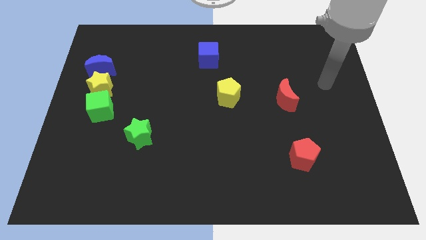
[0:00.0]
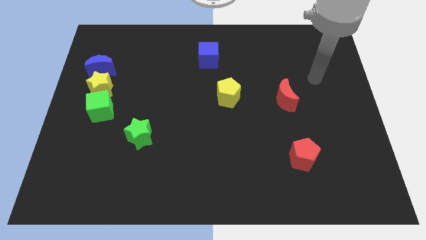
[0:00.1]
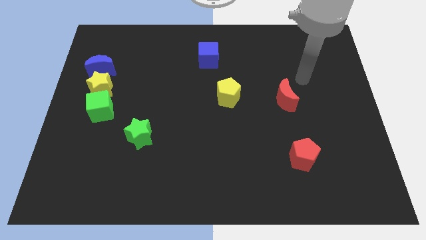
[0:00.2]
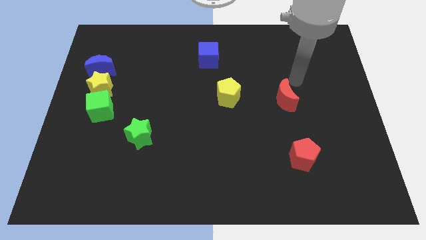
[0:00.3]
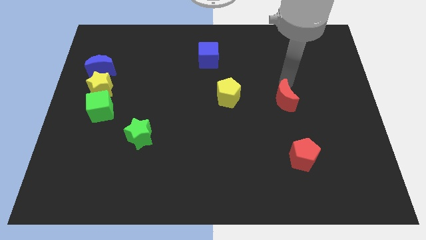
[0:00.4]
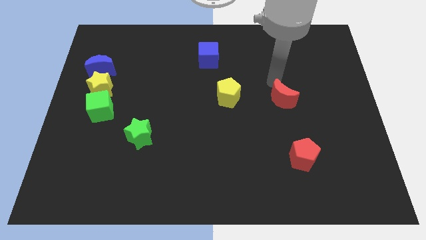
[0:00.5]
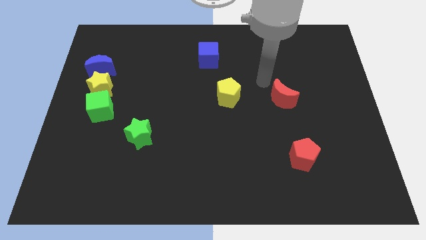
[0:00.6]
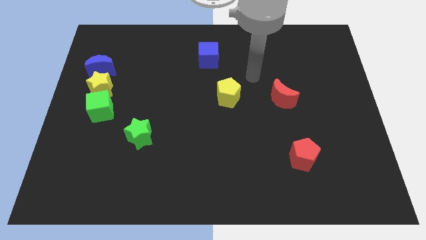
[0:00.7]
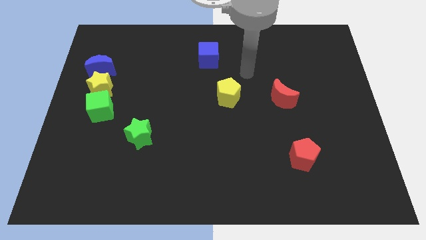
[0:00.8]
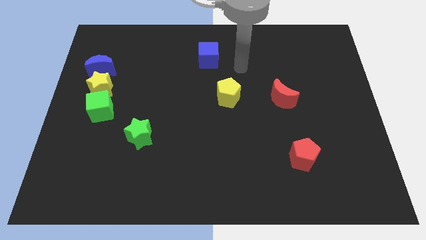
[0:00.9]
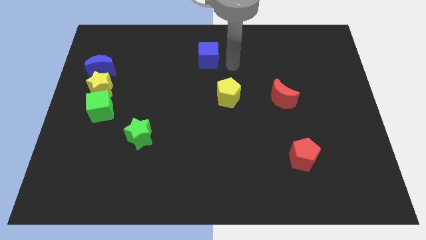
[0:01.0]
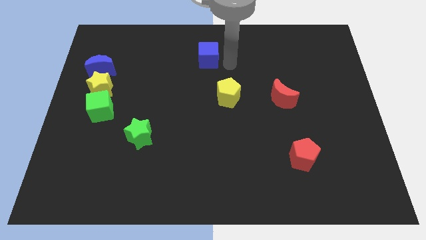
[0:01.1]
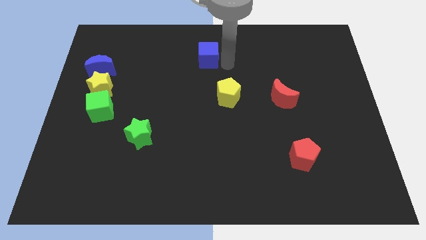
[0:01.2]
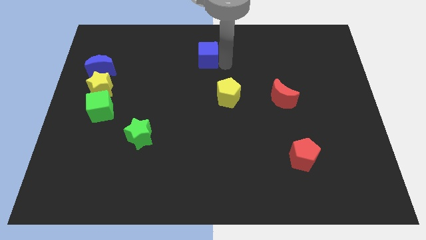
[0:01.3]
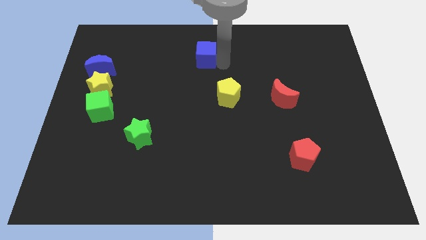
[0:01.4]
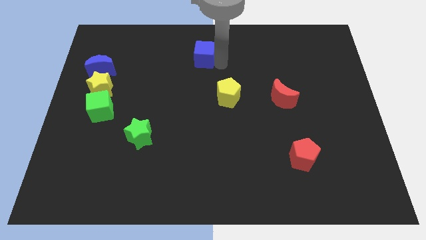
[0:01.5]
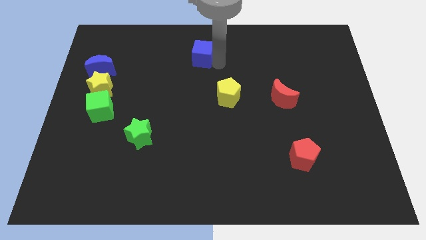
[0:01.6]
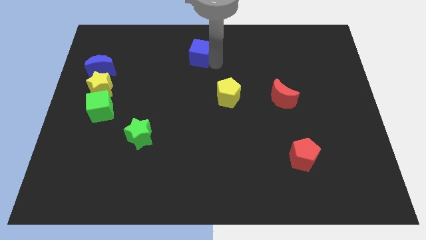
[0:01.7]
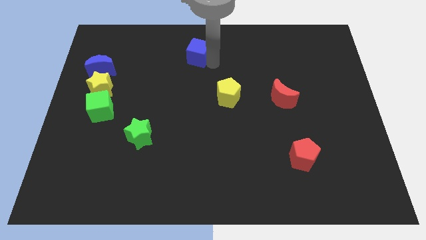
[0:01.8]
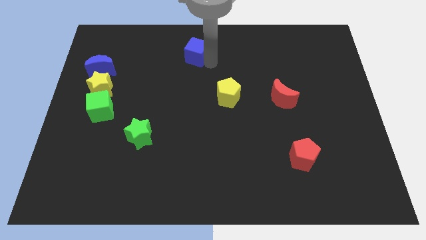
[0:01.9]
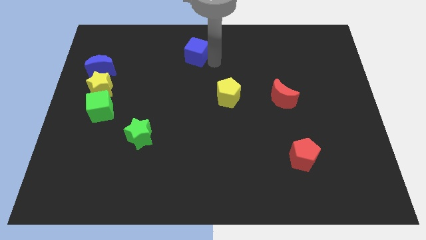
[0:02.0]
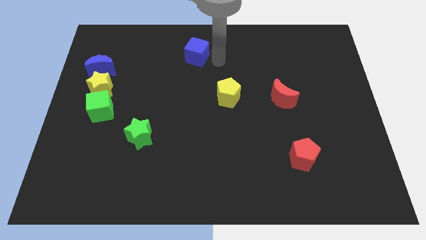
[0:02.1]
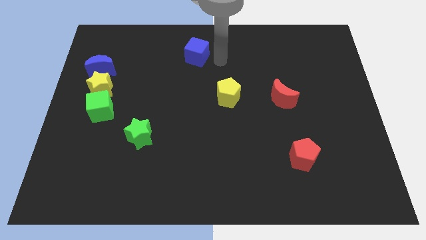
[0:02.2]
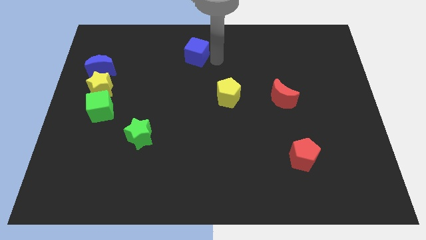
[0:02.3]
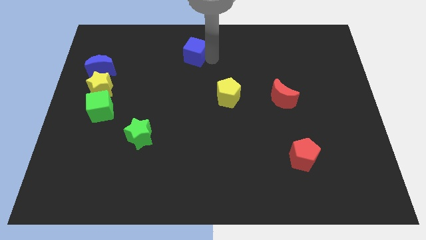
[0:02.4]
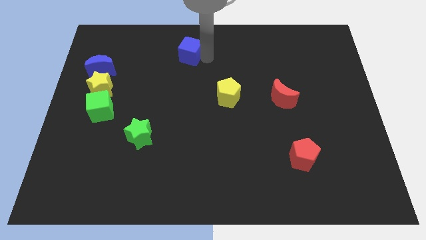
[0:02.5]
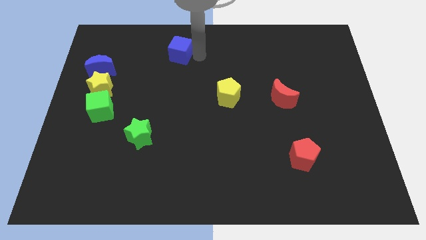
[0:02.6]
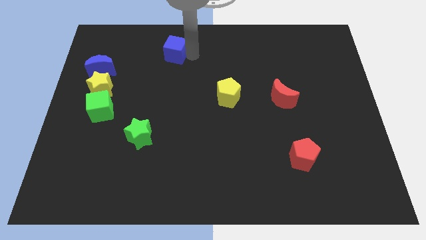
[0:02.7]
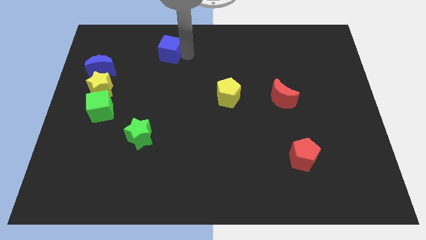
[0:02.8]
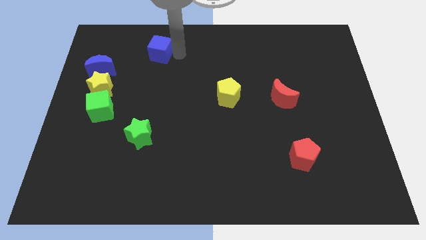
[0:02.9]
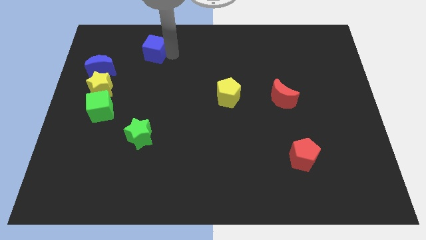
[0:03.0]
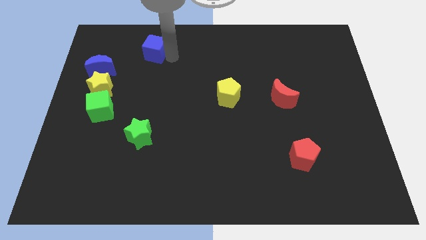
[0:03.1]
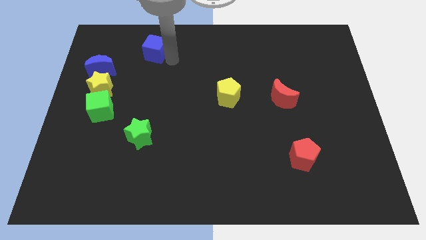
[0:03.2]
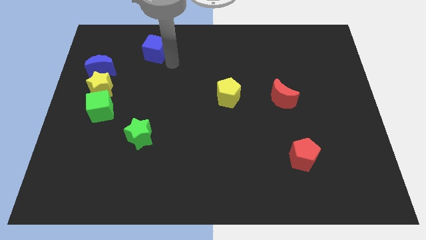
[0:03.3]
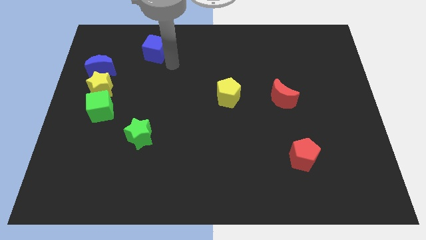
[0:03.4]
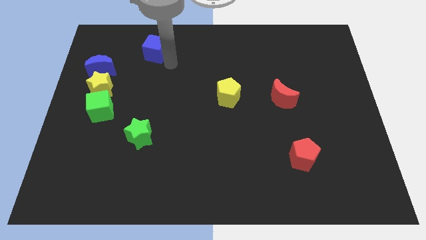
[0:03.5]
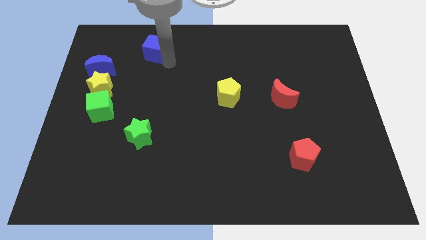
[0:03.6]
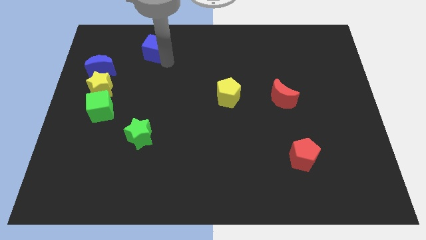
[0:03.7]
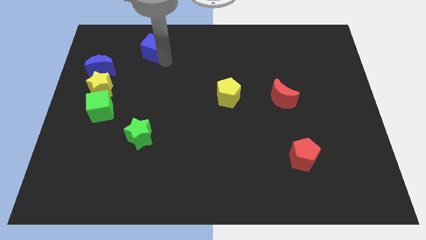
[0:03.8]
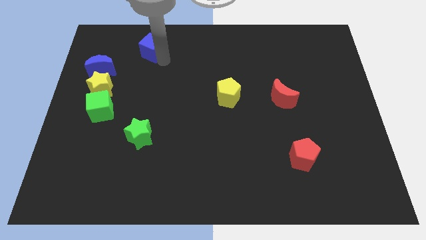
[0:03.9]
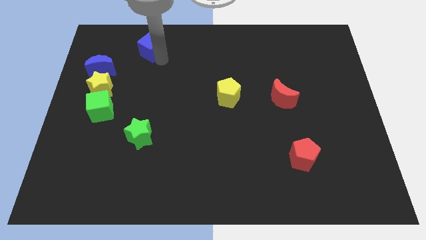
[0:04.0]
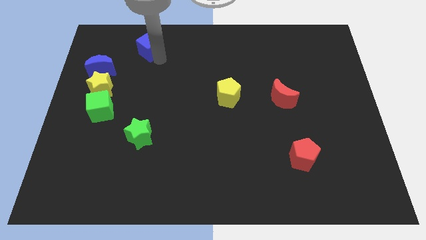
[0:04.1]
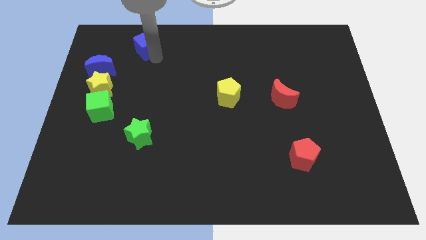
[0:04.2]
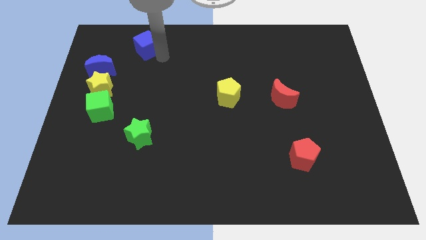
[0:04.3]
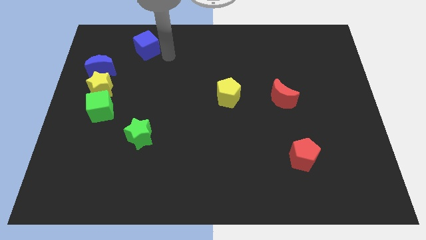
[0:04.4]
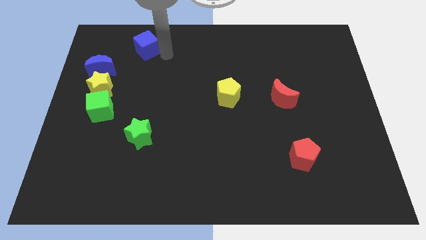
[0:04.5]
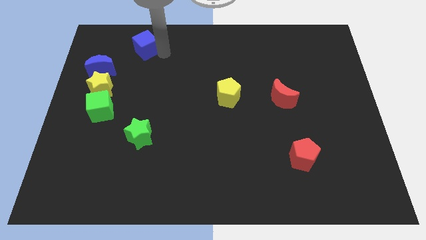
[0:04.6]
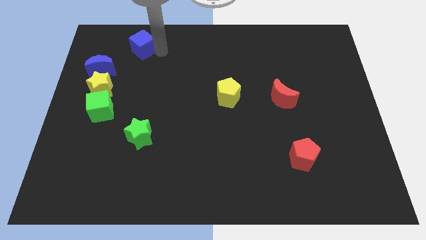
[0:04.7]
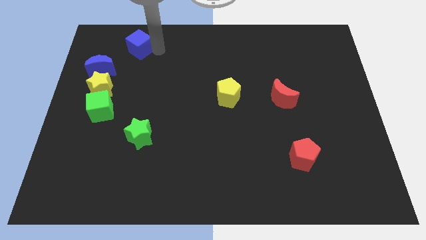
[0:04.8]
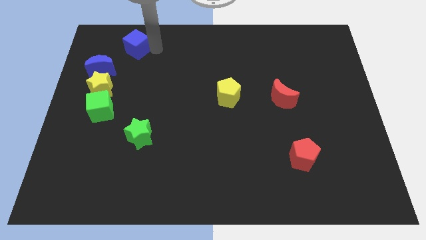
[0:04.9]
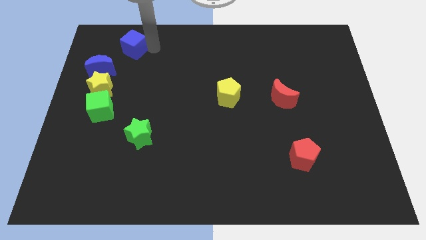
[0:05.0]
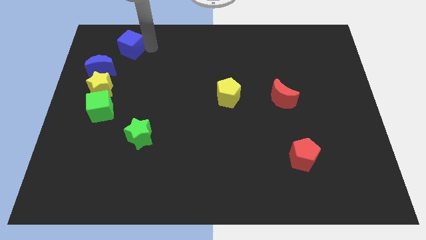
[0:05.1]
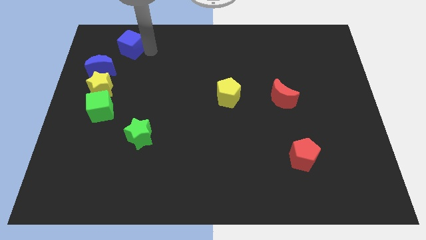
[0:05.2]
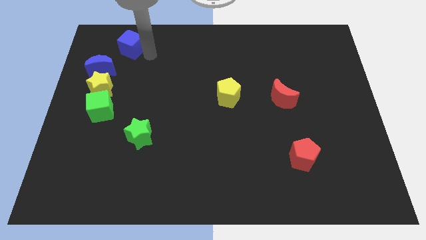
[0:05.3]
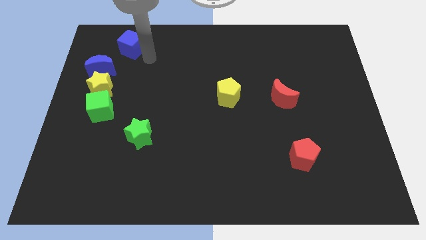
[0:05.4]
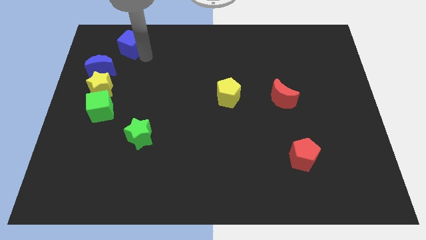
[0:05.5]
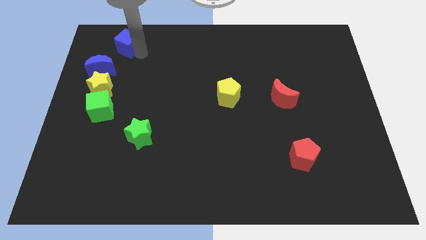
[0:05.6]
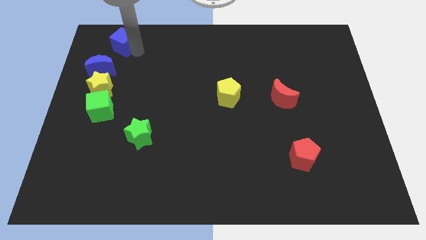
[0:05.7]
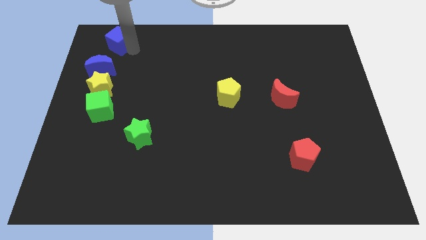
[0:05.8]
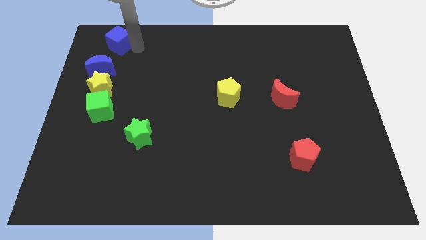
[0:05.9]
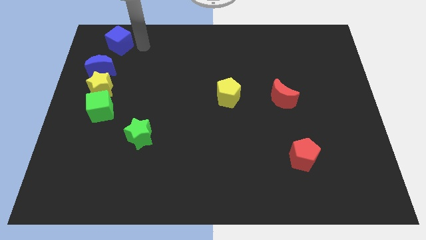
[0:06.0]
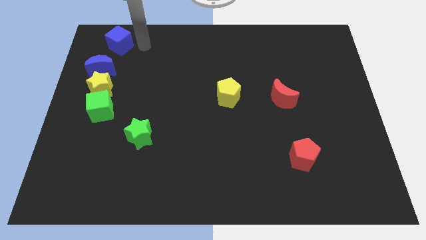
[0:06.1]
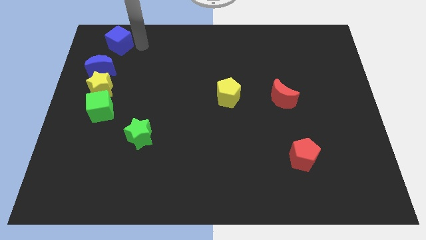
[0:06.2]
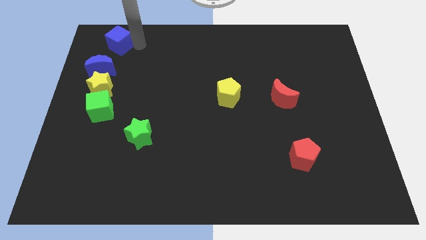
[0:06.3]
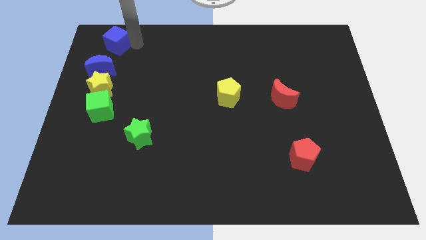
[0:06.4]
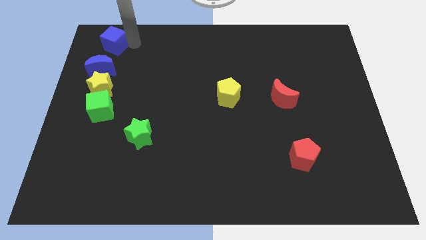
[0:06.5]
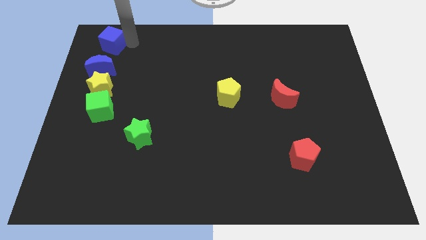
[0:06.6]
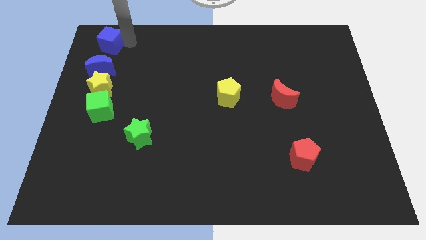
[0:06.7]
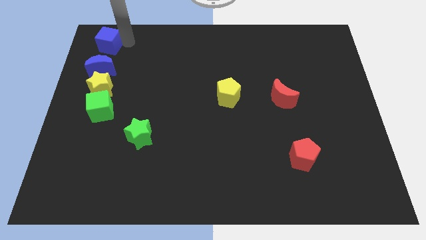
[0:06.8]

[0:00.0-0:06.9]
slide the blue cube to the top left corner
